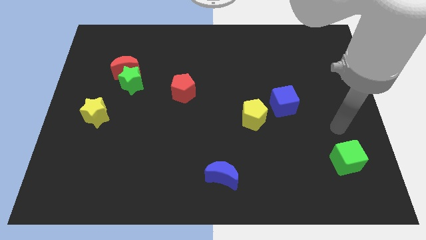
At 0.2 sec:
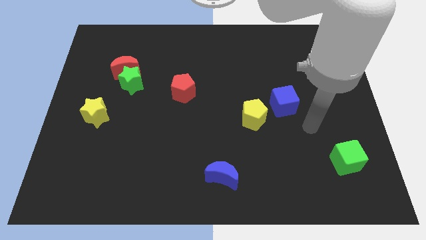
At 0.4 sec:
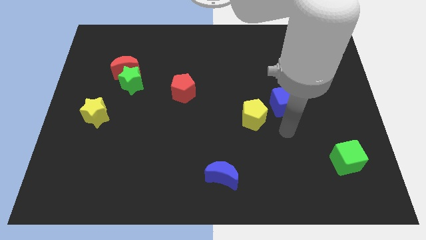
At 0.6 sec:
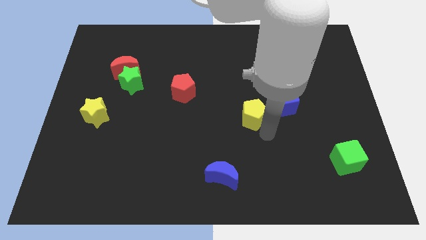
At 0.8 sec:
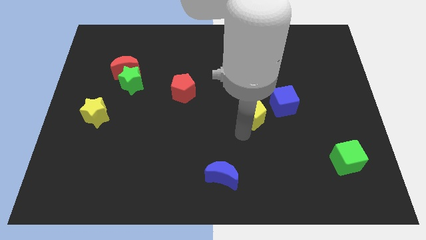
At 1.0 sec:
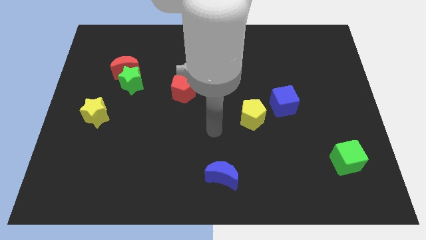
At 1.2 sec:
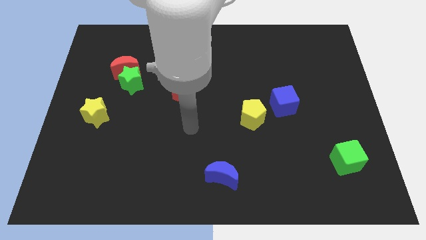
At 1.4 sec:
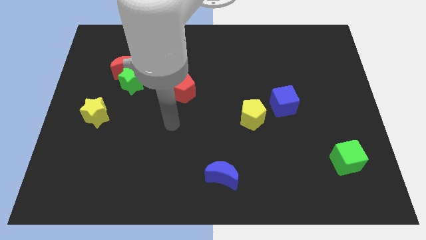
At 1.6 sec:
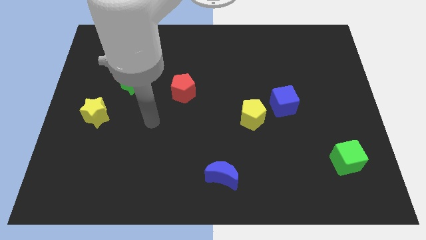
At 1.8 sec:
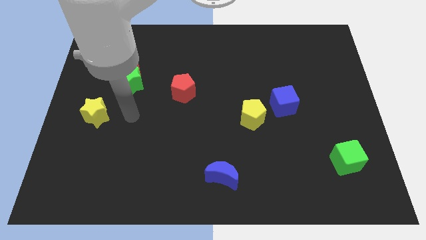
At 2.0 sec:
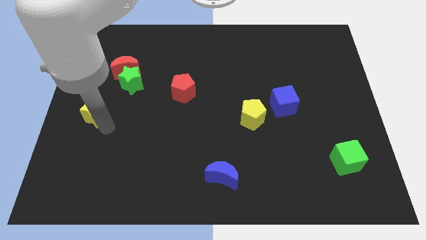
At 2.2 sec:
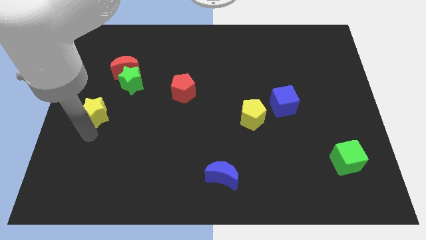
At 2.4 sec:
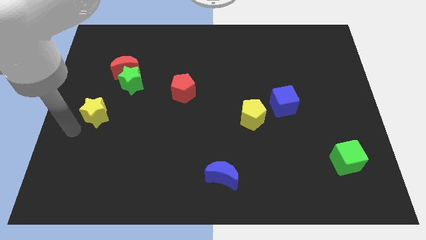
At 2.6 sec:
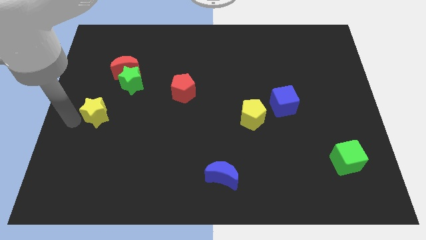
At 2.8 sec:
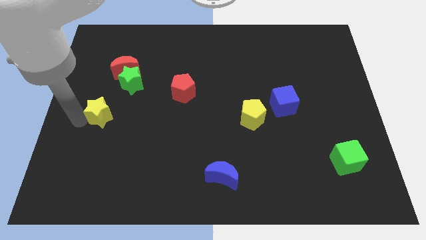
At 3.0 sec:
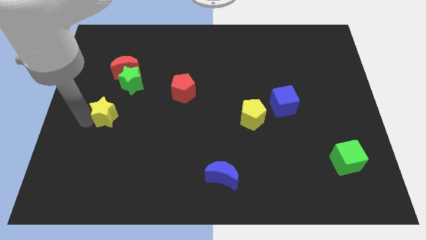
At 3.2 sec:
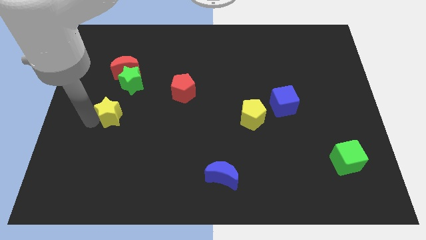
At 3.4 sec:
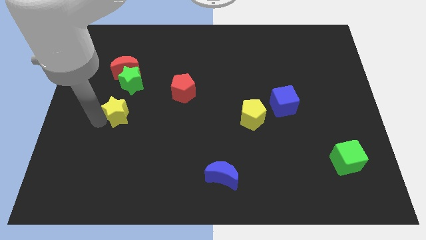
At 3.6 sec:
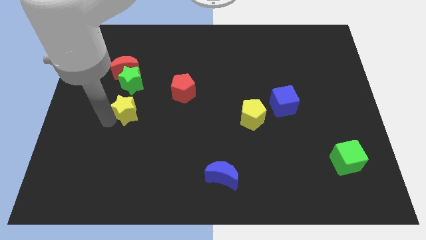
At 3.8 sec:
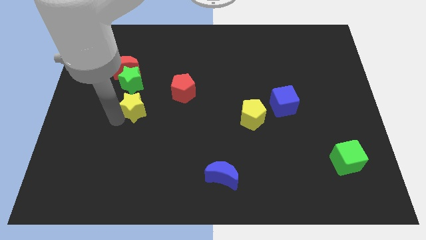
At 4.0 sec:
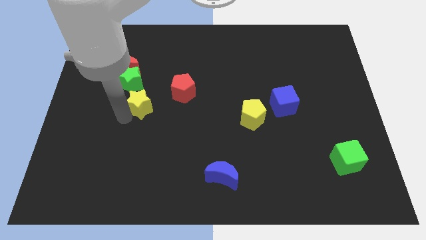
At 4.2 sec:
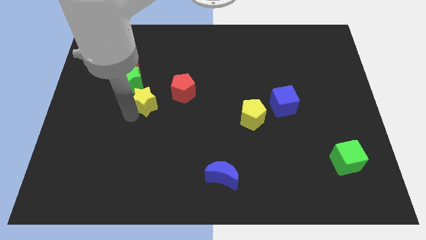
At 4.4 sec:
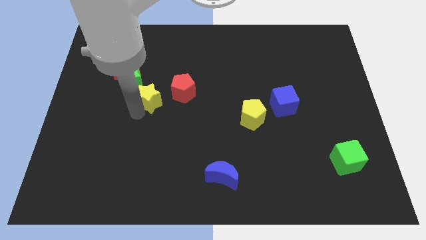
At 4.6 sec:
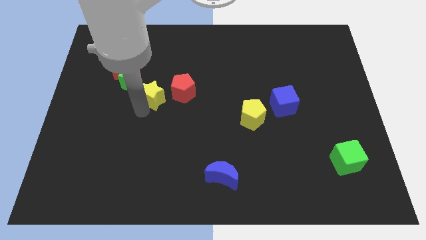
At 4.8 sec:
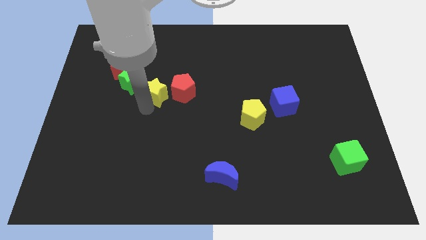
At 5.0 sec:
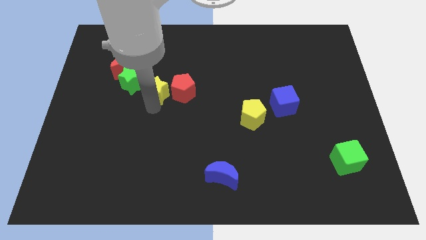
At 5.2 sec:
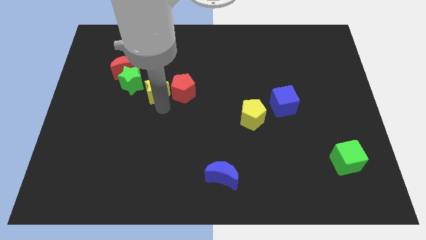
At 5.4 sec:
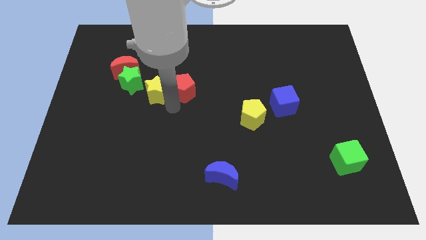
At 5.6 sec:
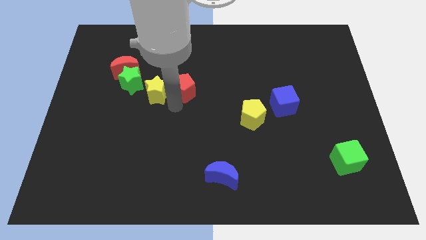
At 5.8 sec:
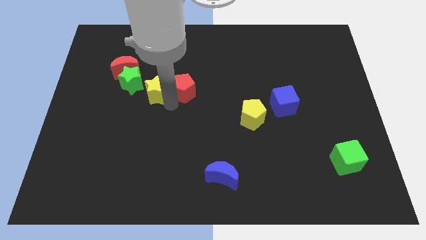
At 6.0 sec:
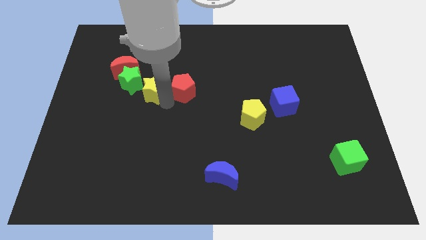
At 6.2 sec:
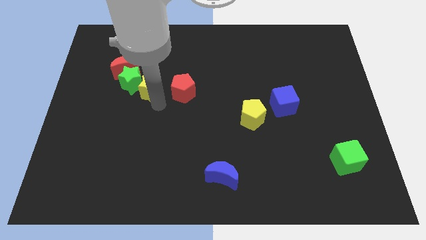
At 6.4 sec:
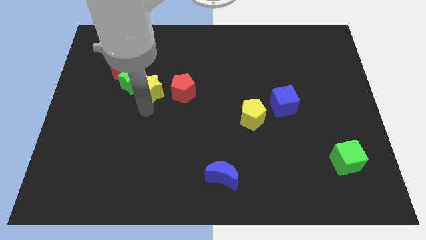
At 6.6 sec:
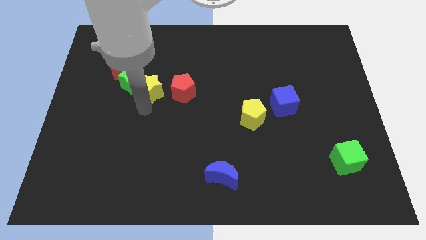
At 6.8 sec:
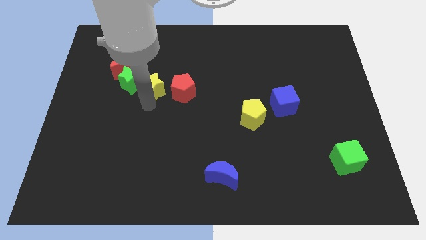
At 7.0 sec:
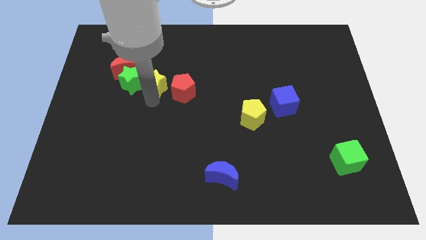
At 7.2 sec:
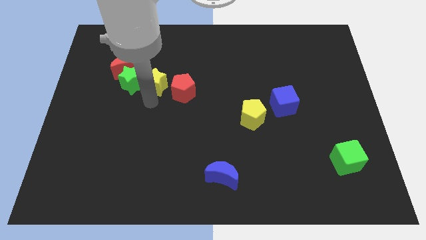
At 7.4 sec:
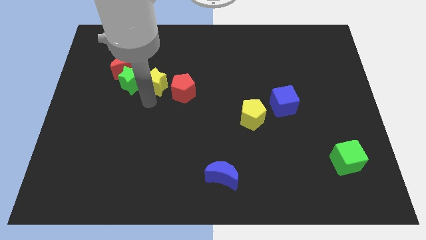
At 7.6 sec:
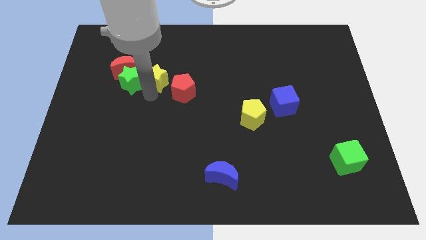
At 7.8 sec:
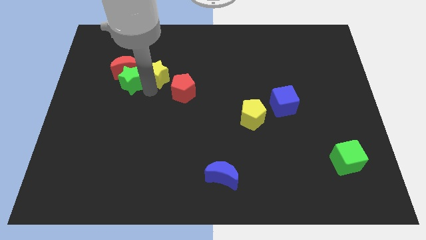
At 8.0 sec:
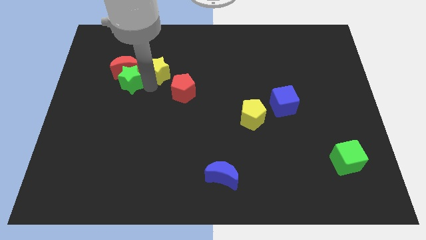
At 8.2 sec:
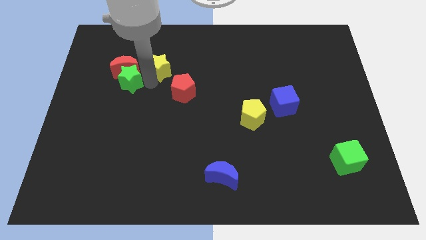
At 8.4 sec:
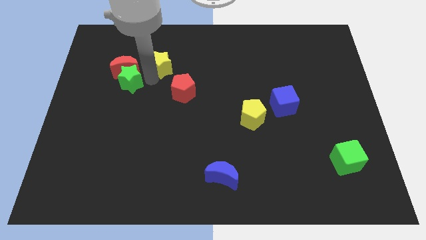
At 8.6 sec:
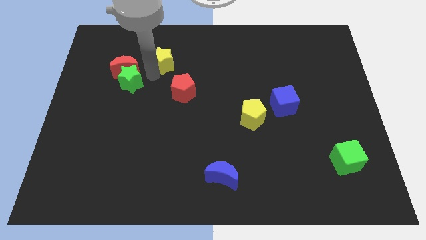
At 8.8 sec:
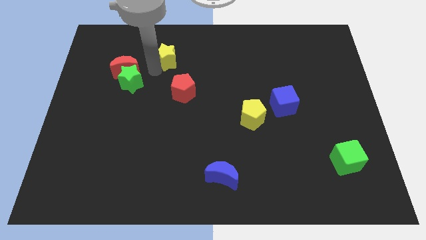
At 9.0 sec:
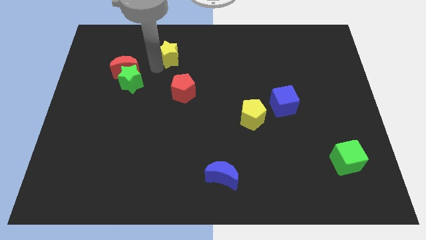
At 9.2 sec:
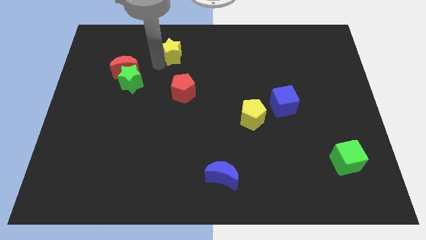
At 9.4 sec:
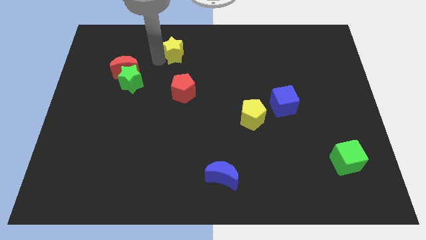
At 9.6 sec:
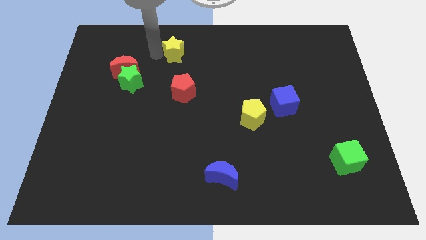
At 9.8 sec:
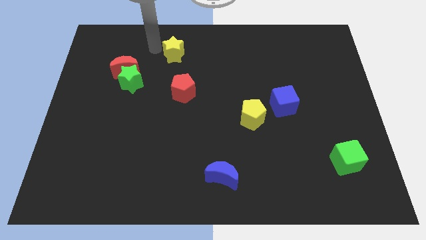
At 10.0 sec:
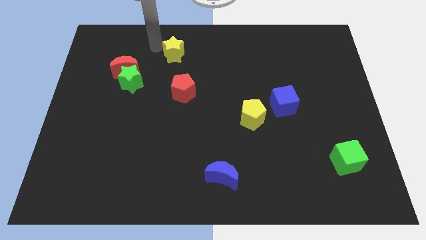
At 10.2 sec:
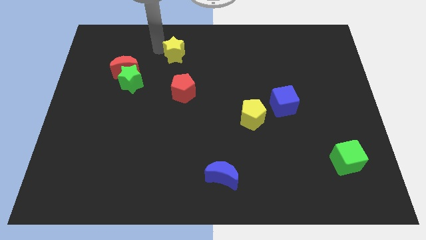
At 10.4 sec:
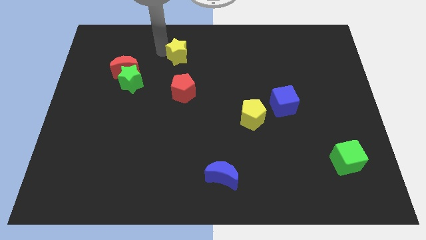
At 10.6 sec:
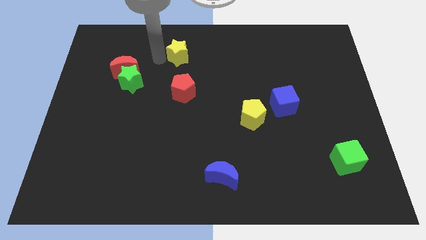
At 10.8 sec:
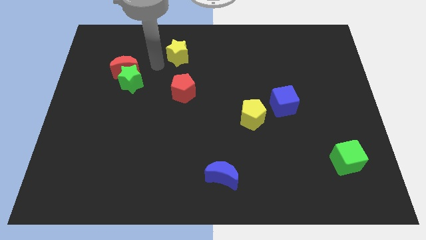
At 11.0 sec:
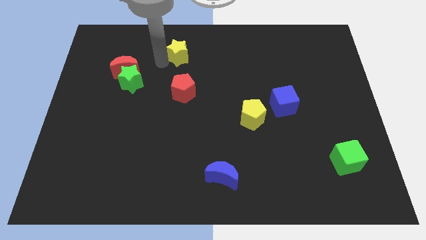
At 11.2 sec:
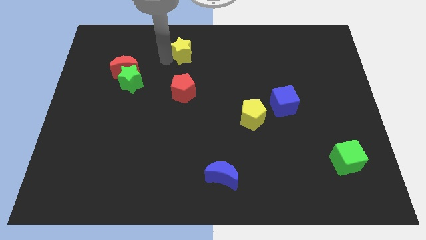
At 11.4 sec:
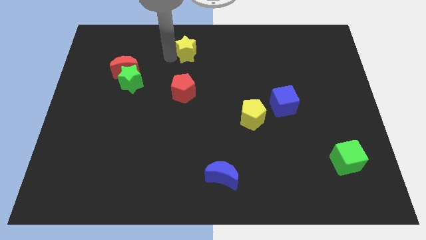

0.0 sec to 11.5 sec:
put the yellow star to the top

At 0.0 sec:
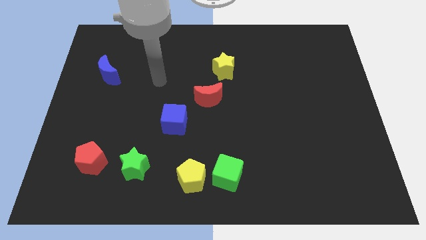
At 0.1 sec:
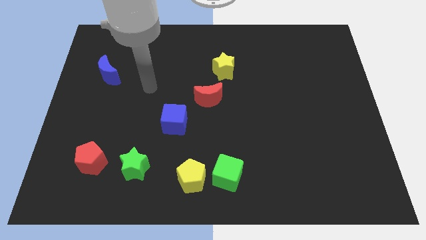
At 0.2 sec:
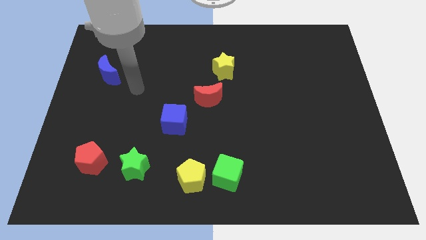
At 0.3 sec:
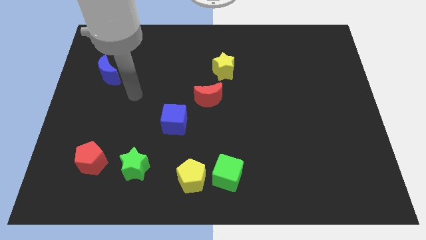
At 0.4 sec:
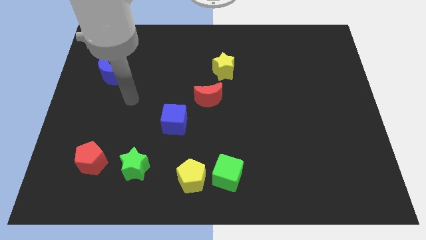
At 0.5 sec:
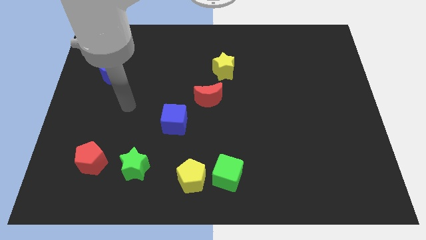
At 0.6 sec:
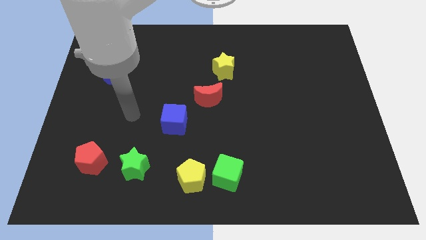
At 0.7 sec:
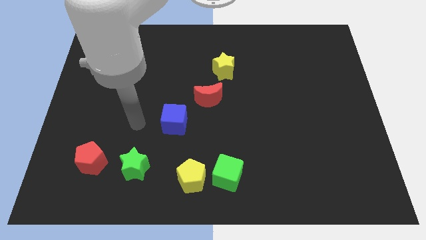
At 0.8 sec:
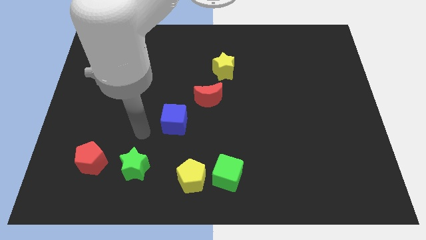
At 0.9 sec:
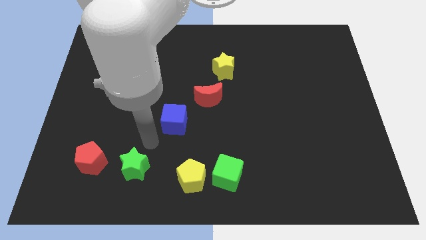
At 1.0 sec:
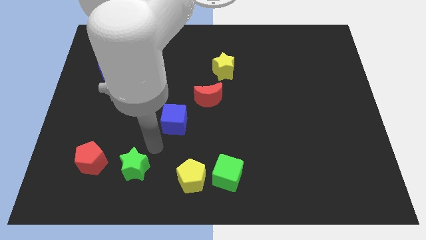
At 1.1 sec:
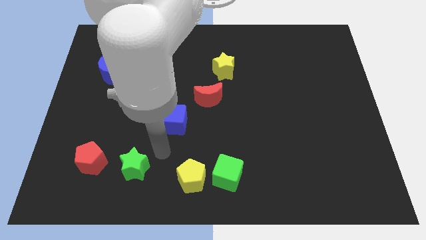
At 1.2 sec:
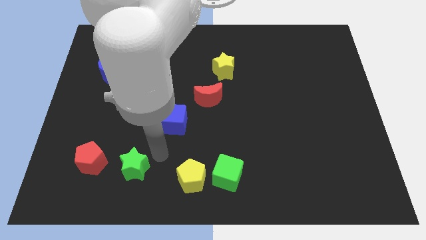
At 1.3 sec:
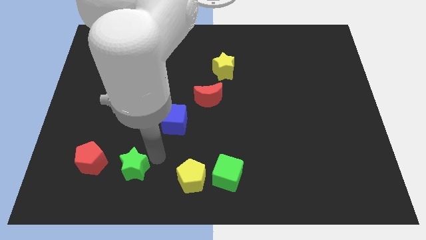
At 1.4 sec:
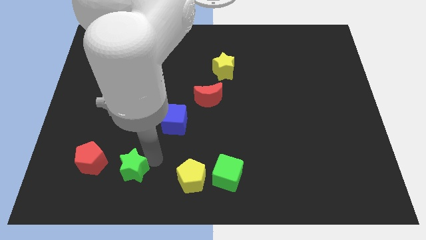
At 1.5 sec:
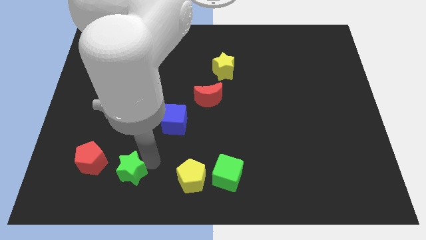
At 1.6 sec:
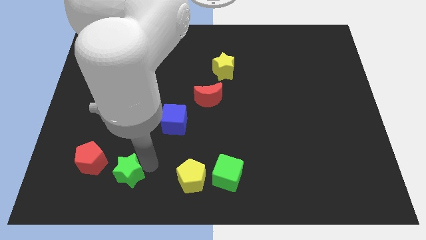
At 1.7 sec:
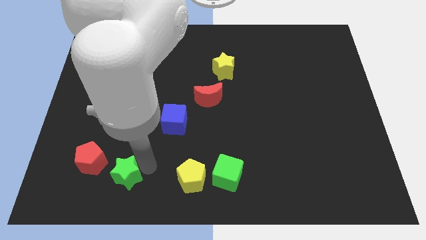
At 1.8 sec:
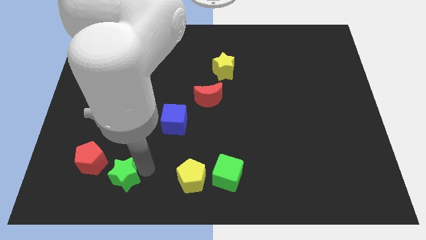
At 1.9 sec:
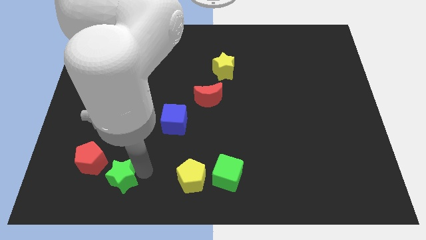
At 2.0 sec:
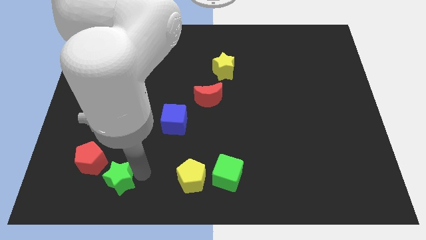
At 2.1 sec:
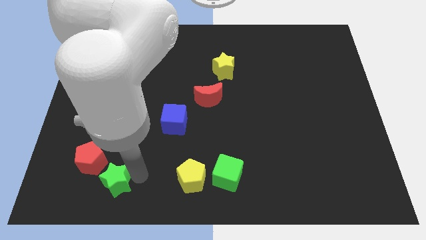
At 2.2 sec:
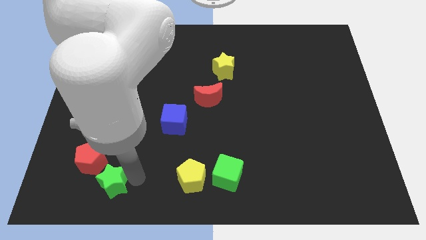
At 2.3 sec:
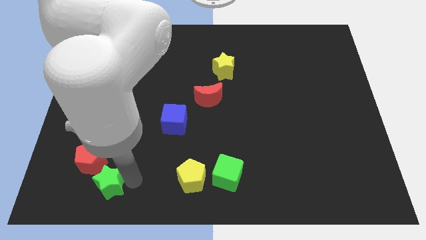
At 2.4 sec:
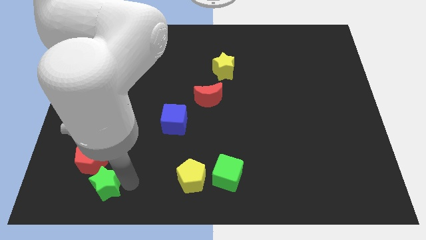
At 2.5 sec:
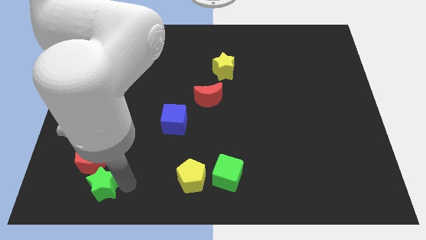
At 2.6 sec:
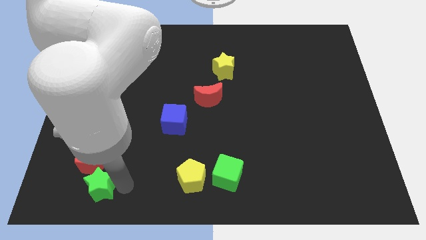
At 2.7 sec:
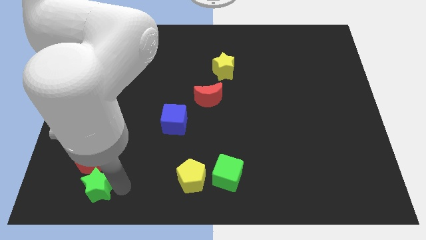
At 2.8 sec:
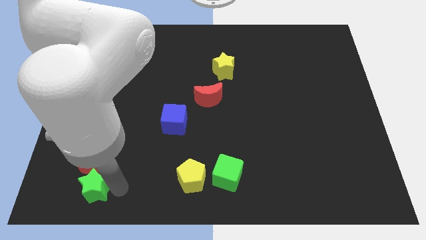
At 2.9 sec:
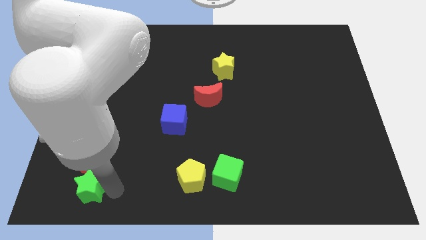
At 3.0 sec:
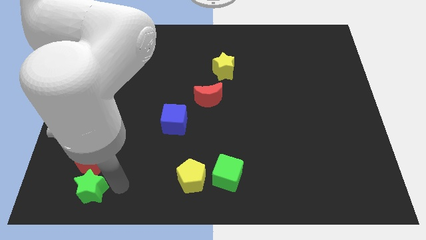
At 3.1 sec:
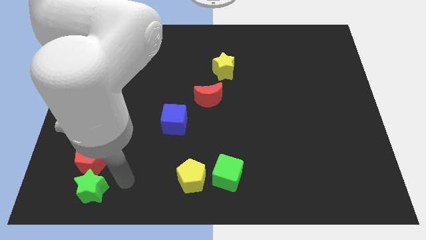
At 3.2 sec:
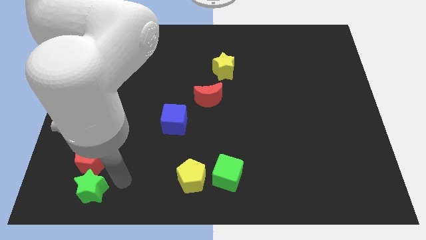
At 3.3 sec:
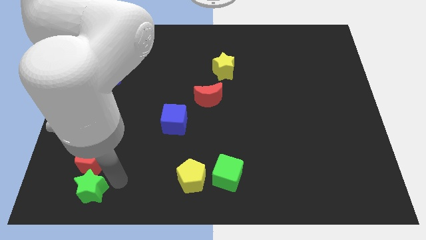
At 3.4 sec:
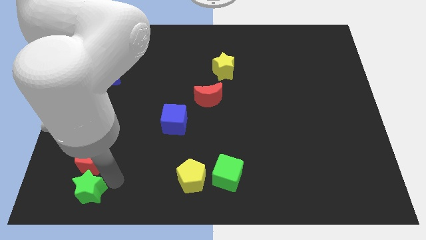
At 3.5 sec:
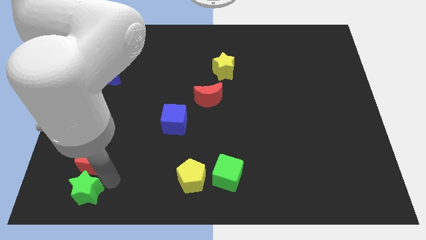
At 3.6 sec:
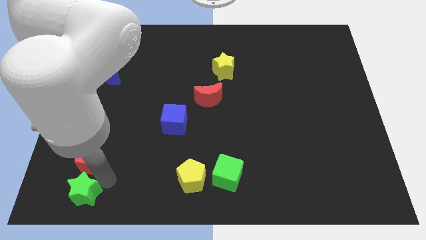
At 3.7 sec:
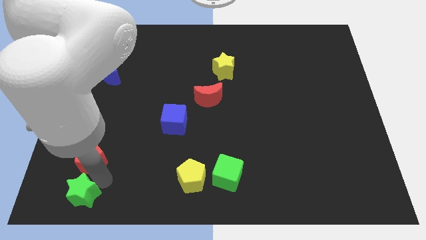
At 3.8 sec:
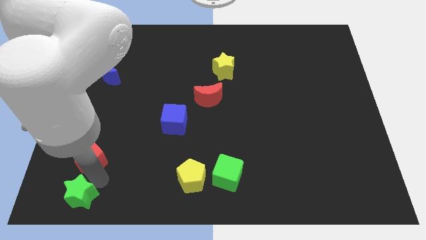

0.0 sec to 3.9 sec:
move the green star to the bottom left
